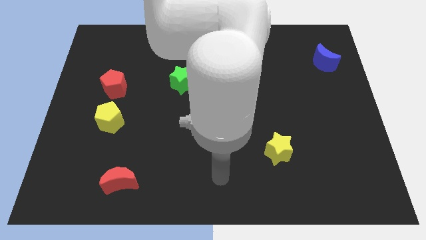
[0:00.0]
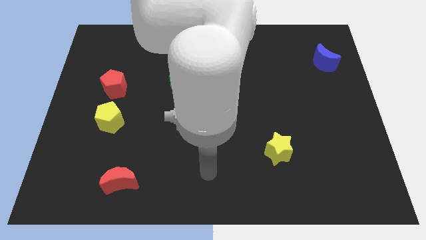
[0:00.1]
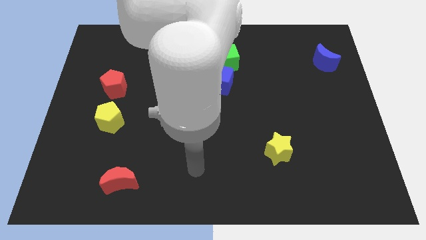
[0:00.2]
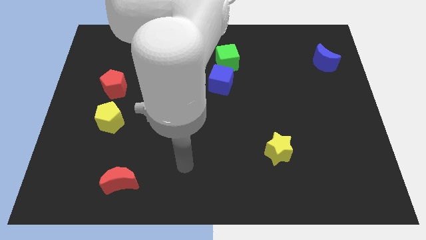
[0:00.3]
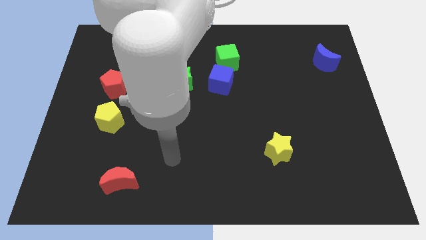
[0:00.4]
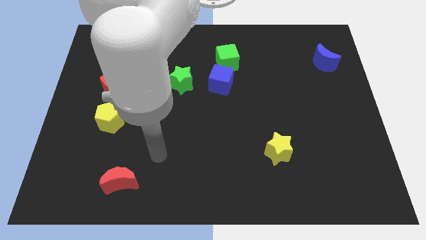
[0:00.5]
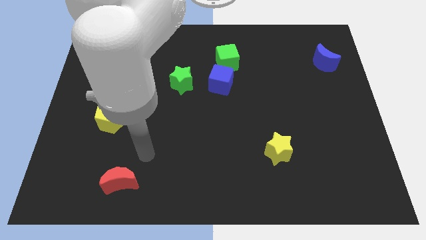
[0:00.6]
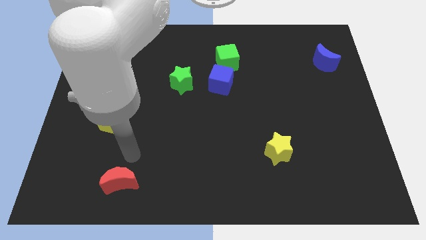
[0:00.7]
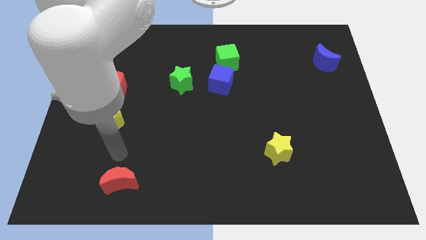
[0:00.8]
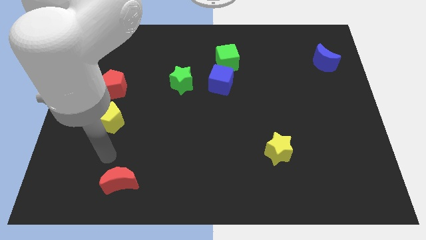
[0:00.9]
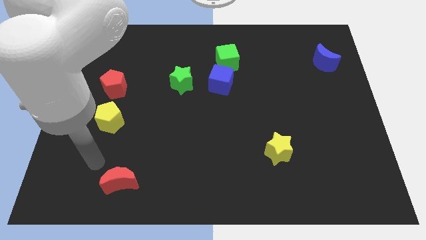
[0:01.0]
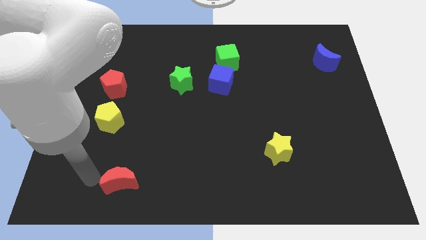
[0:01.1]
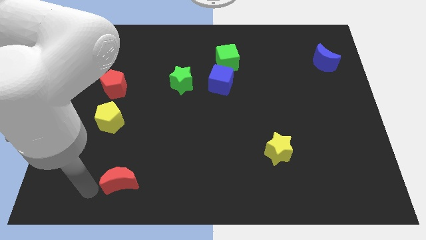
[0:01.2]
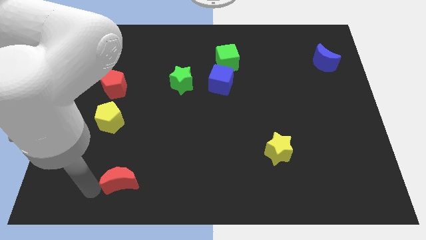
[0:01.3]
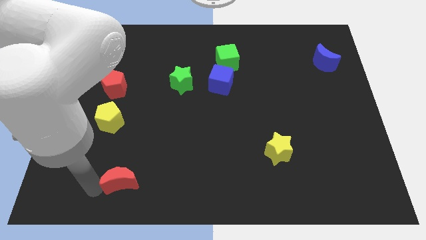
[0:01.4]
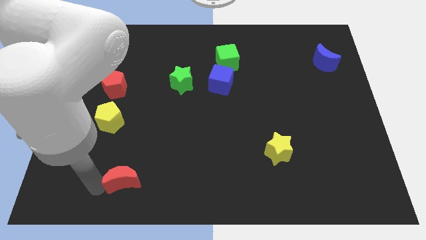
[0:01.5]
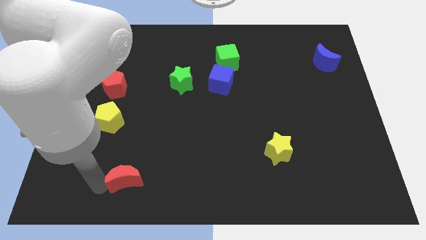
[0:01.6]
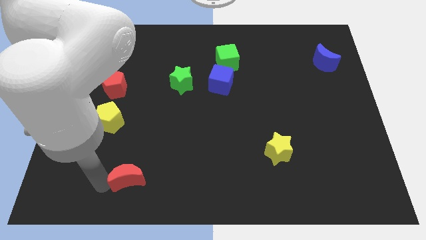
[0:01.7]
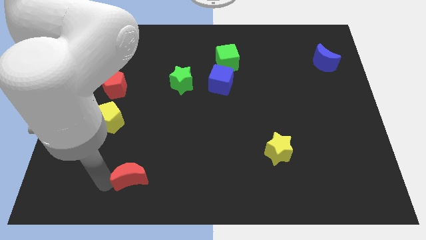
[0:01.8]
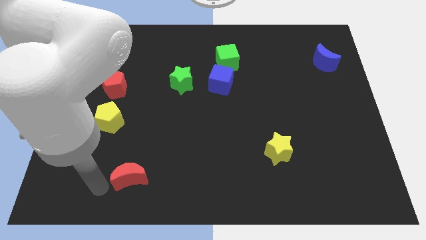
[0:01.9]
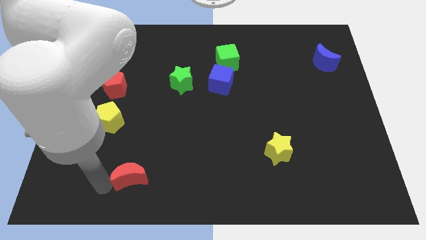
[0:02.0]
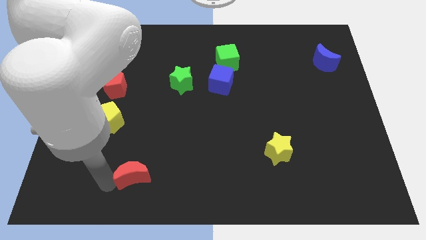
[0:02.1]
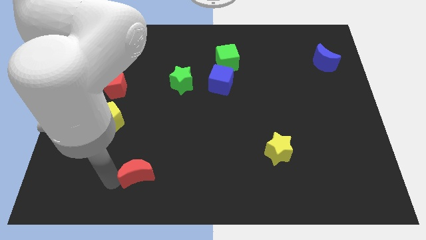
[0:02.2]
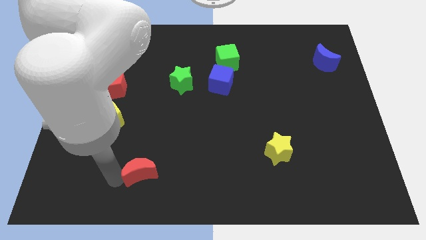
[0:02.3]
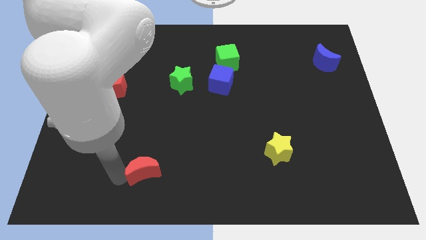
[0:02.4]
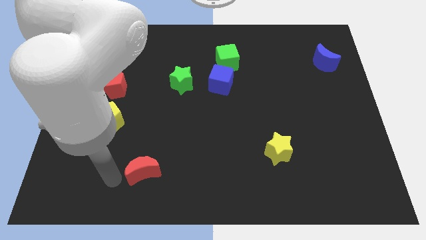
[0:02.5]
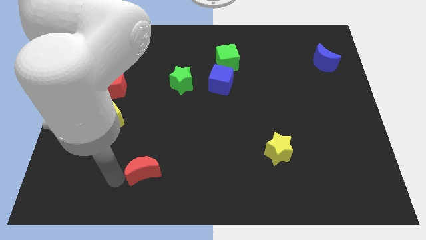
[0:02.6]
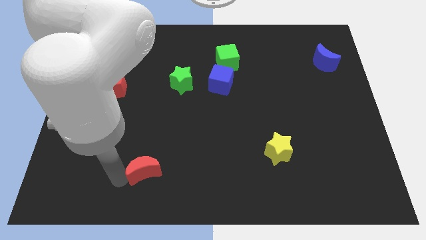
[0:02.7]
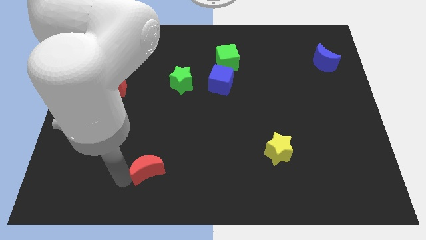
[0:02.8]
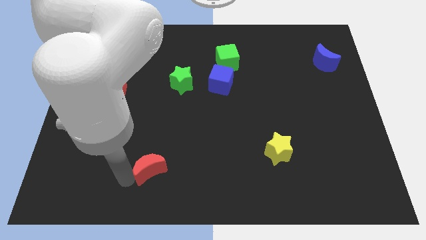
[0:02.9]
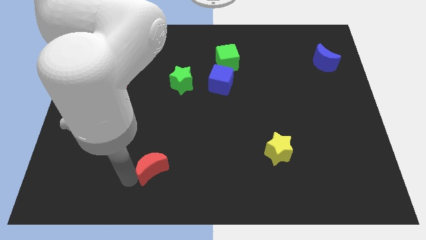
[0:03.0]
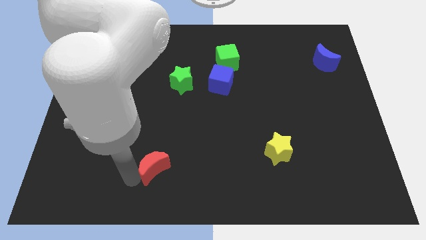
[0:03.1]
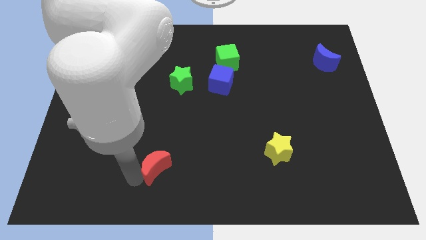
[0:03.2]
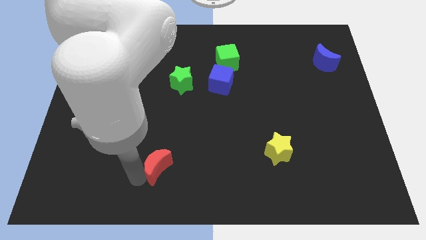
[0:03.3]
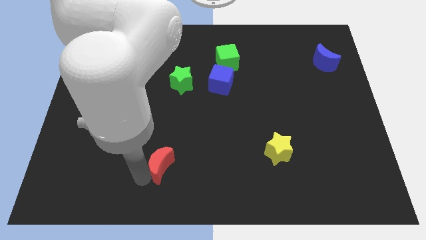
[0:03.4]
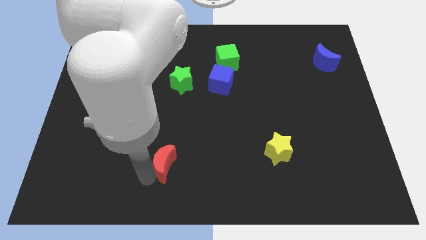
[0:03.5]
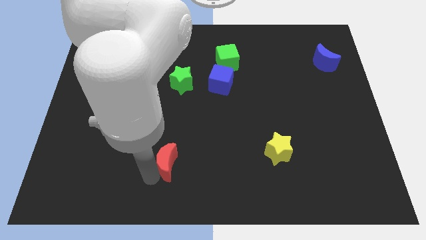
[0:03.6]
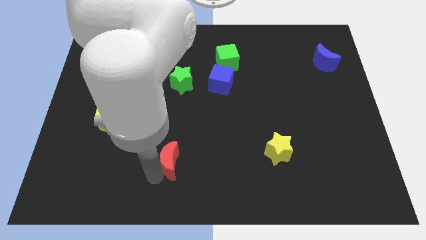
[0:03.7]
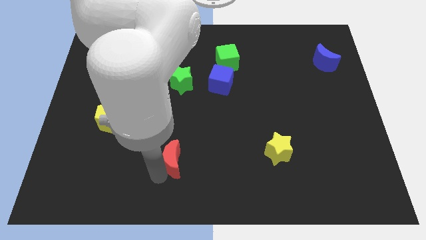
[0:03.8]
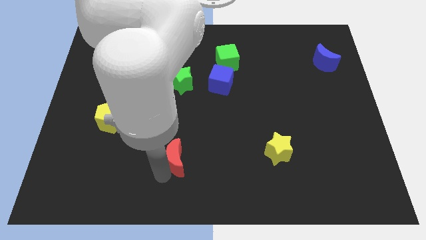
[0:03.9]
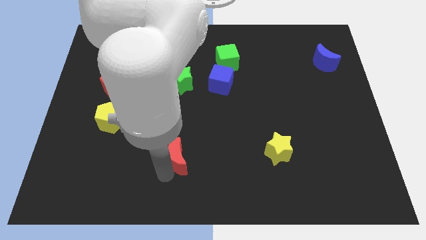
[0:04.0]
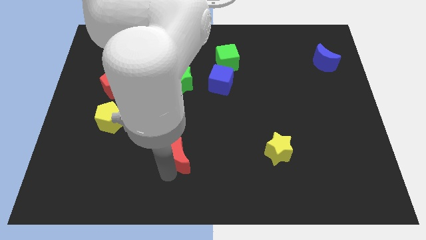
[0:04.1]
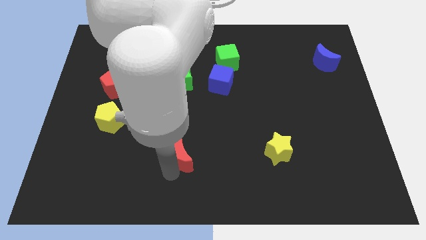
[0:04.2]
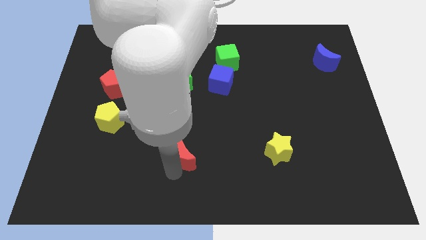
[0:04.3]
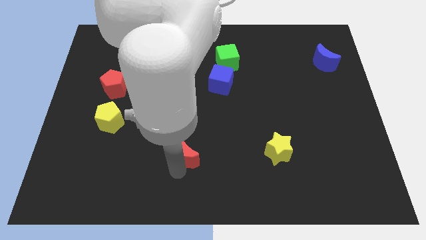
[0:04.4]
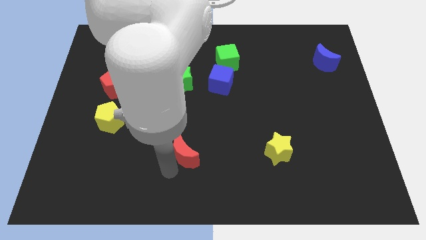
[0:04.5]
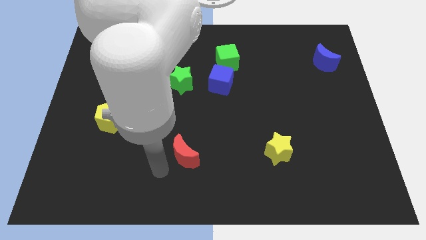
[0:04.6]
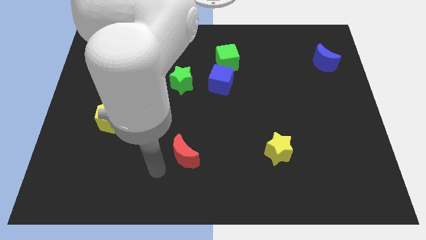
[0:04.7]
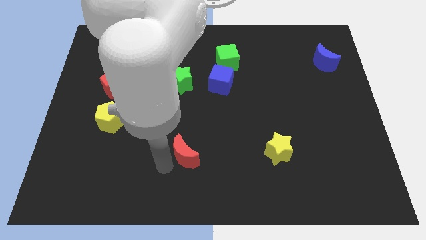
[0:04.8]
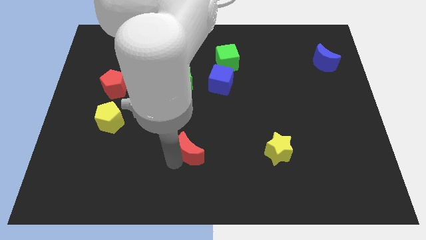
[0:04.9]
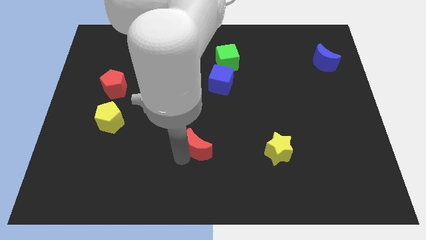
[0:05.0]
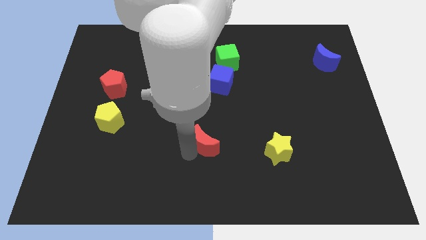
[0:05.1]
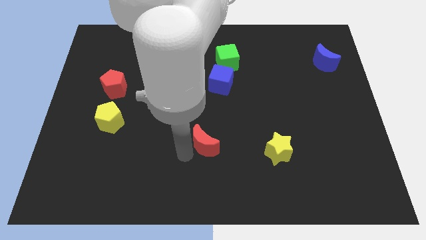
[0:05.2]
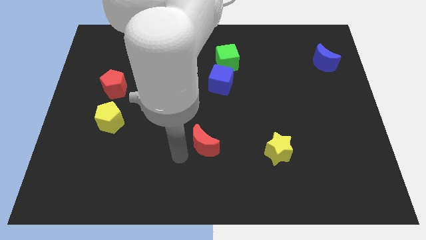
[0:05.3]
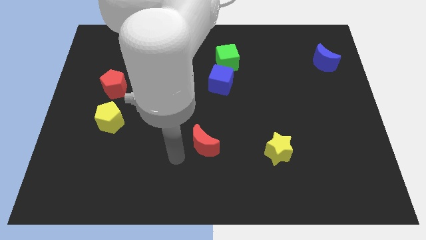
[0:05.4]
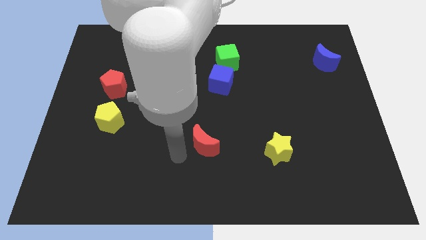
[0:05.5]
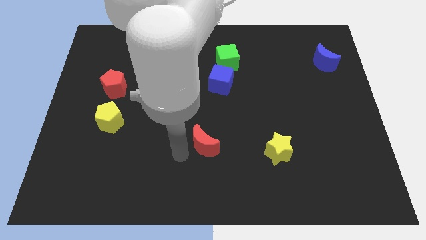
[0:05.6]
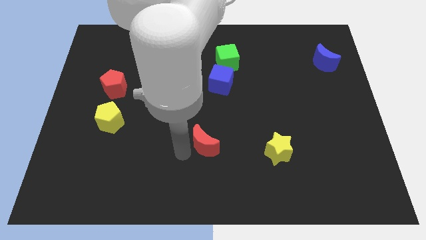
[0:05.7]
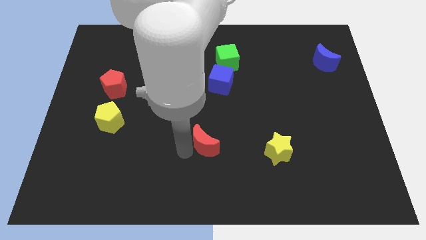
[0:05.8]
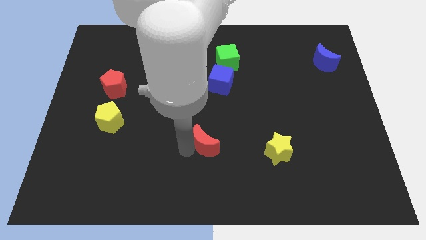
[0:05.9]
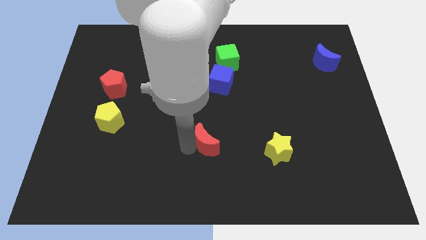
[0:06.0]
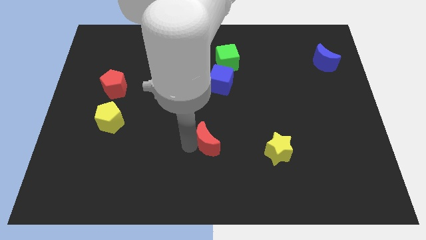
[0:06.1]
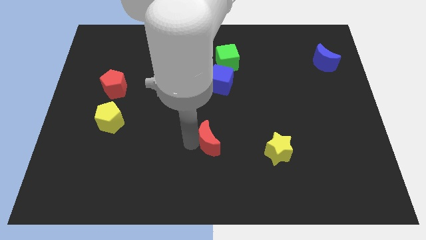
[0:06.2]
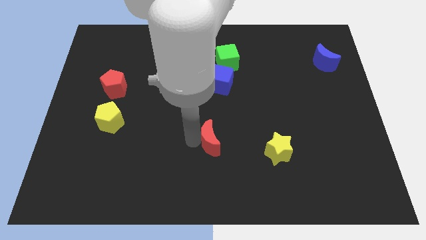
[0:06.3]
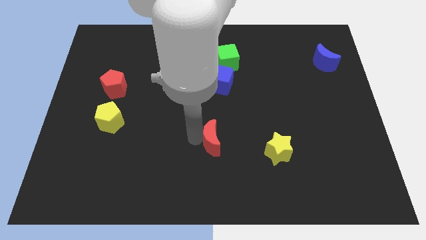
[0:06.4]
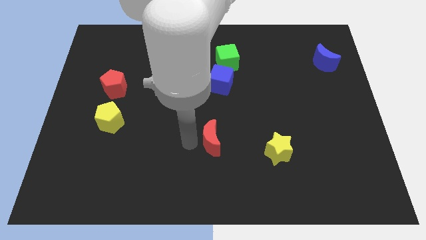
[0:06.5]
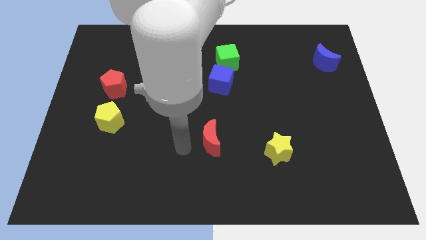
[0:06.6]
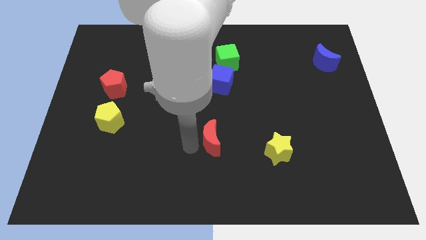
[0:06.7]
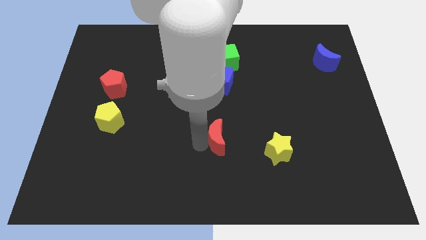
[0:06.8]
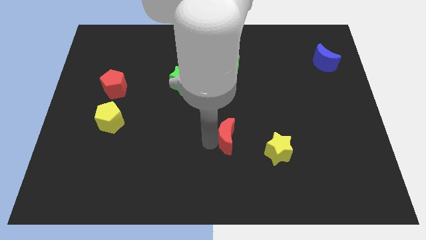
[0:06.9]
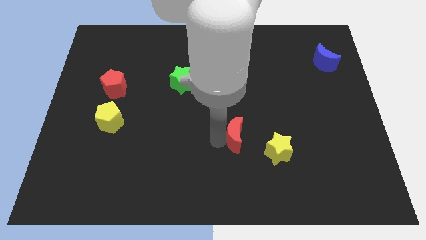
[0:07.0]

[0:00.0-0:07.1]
put the red moon to the top left side of the yellow star

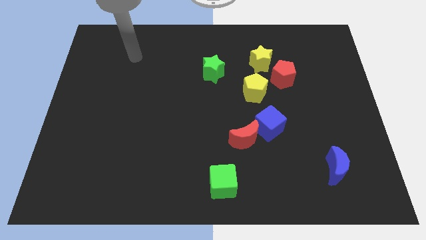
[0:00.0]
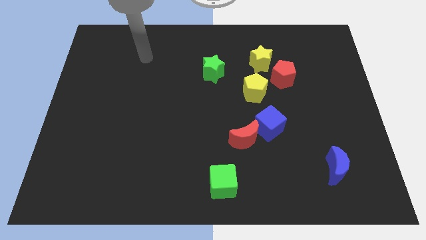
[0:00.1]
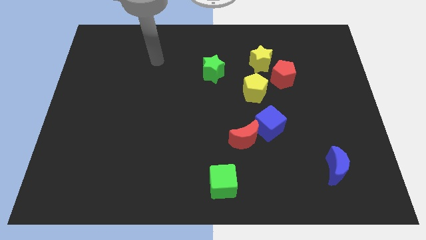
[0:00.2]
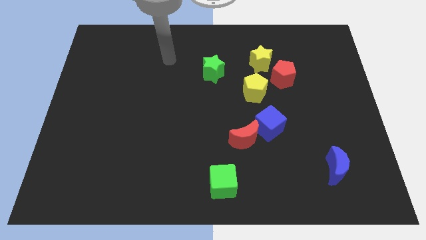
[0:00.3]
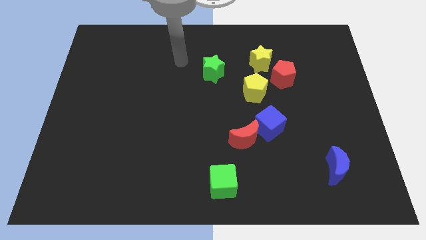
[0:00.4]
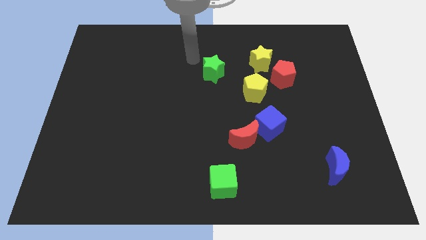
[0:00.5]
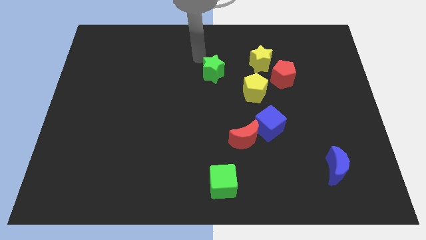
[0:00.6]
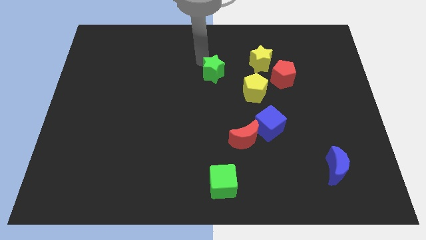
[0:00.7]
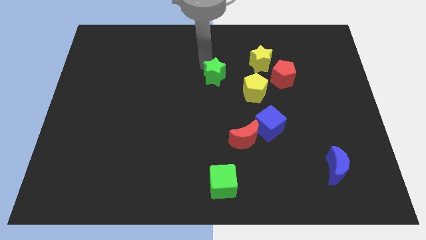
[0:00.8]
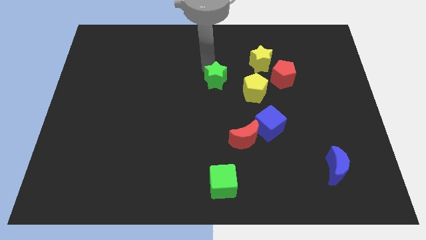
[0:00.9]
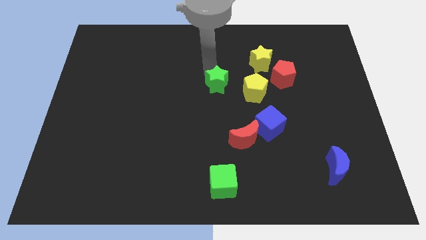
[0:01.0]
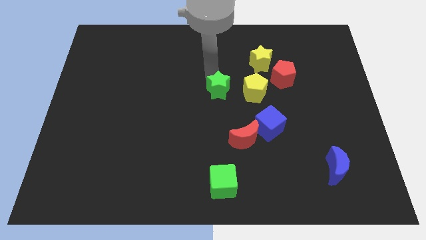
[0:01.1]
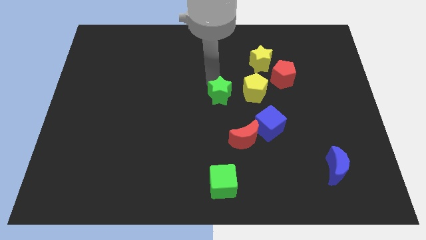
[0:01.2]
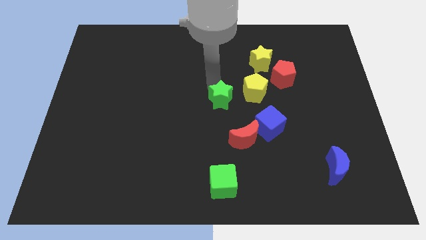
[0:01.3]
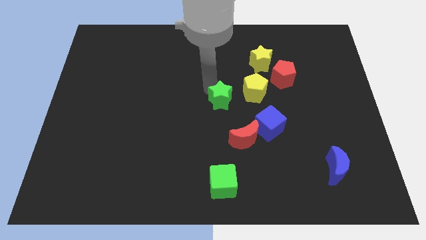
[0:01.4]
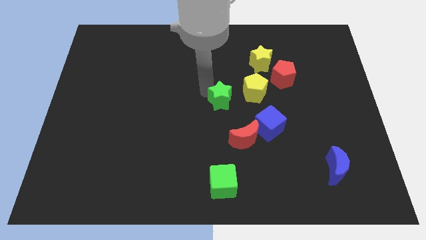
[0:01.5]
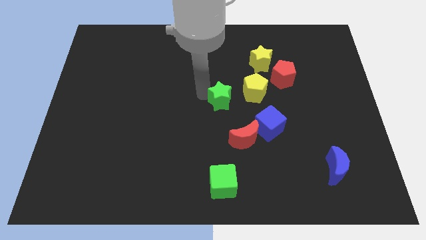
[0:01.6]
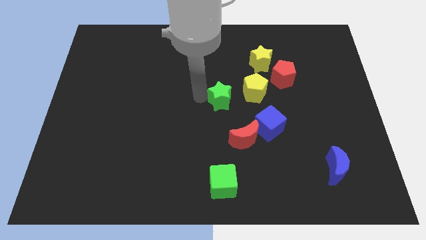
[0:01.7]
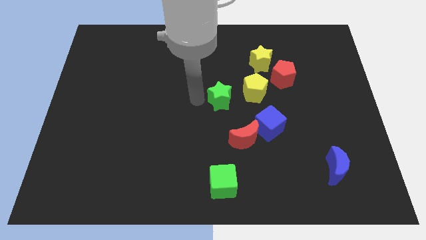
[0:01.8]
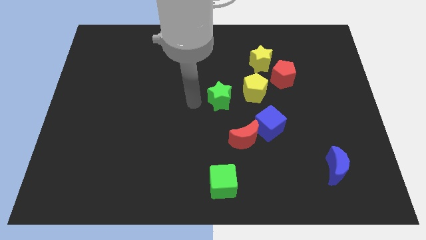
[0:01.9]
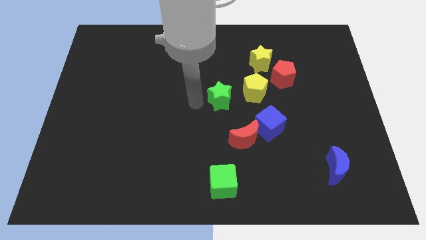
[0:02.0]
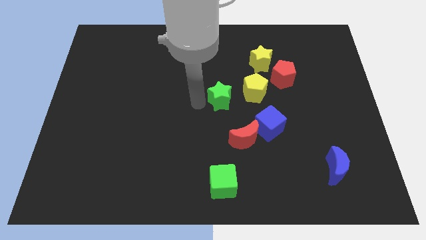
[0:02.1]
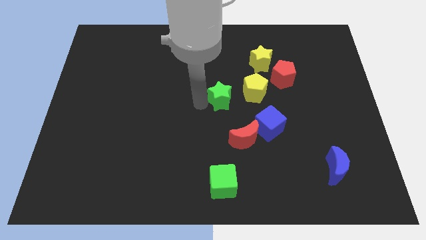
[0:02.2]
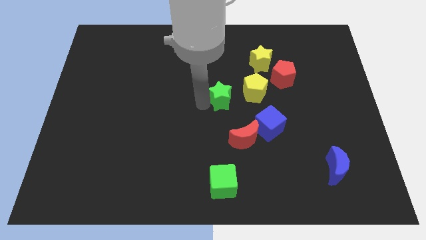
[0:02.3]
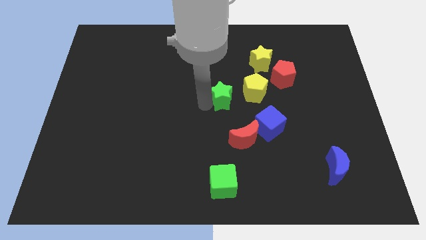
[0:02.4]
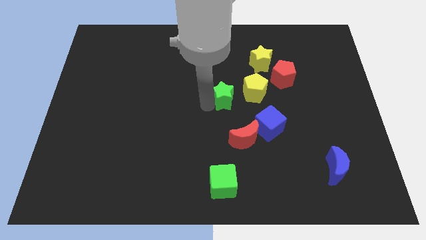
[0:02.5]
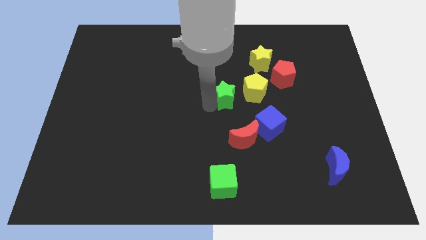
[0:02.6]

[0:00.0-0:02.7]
move the green star diagonally up and to the left of the blue cube
